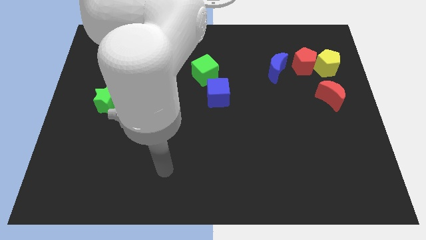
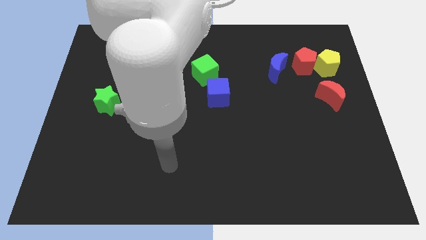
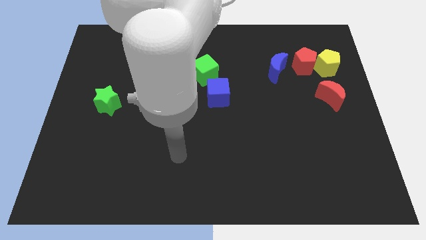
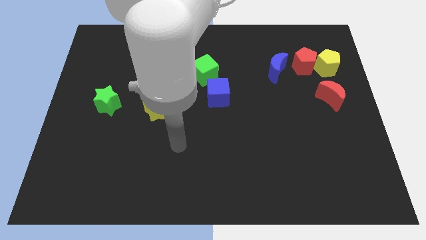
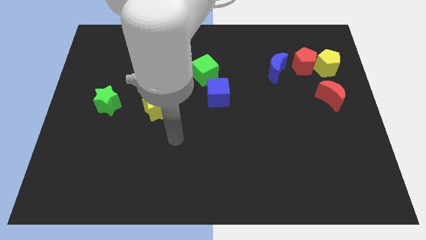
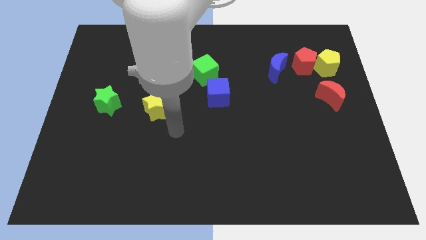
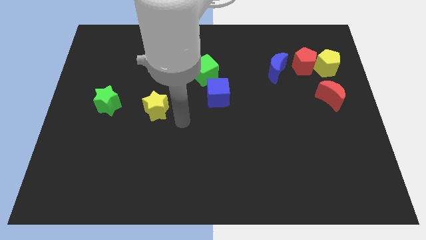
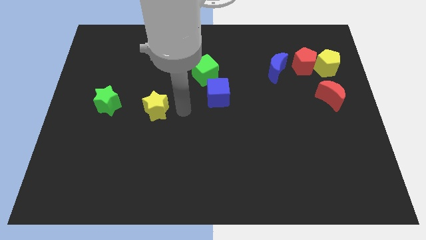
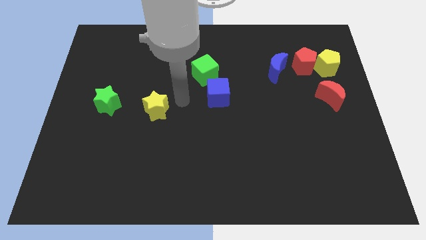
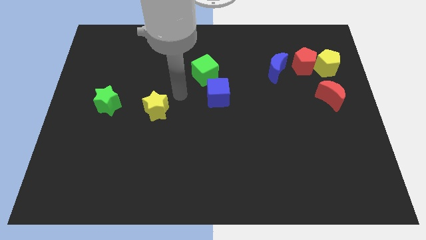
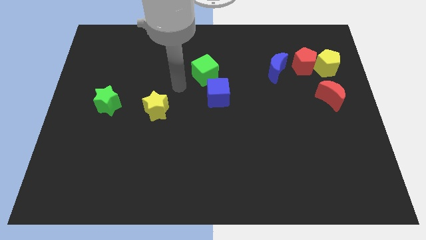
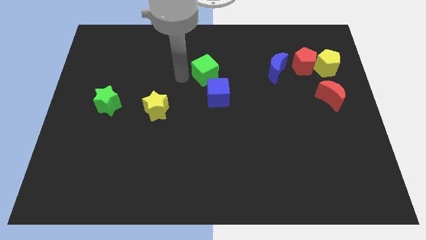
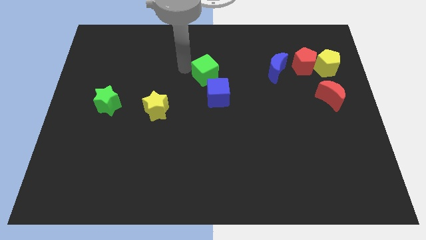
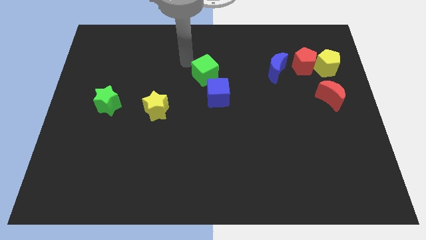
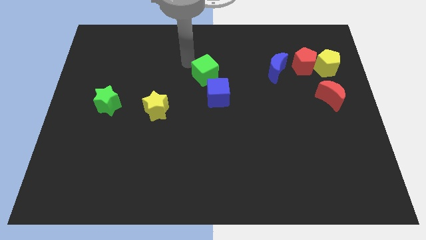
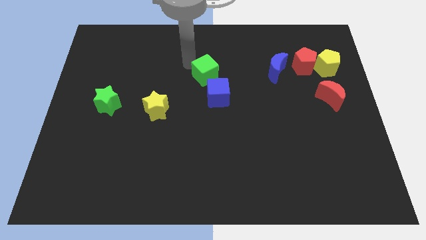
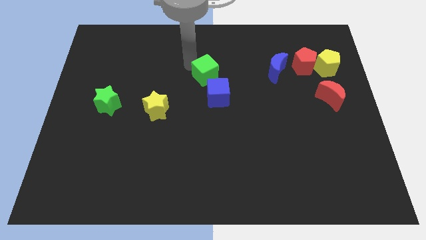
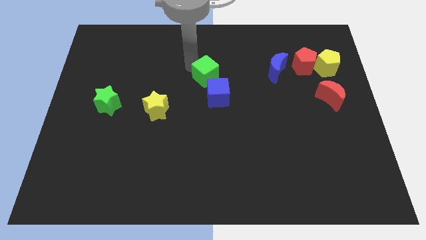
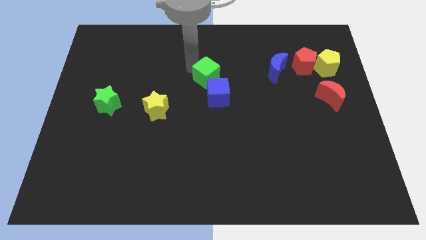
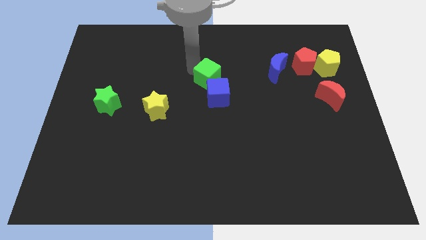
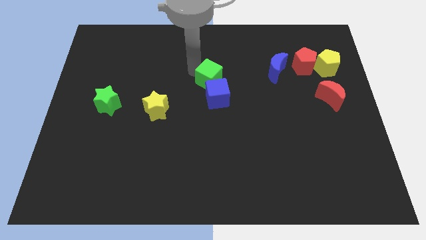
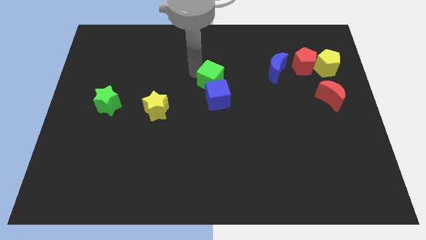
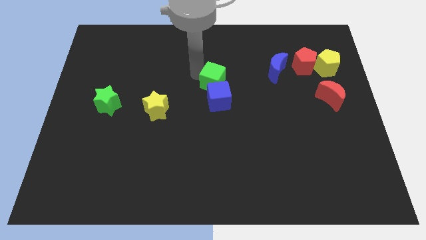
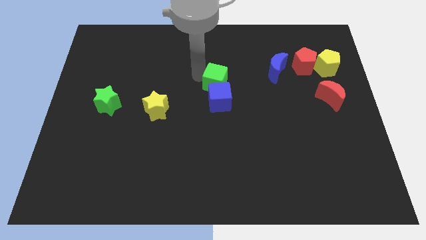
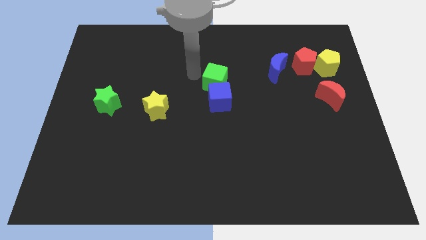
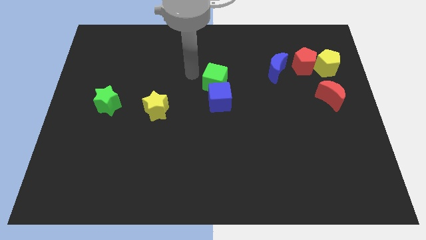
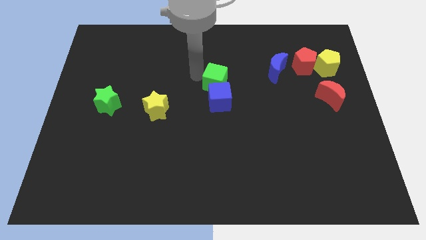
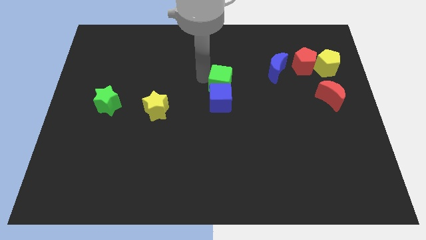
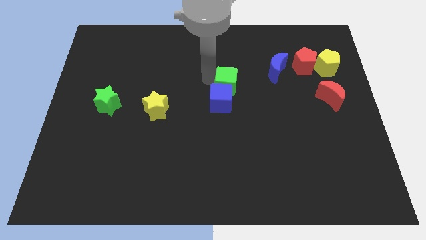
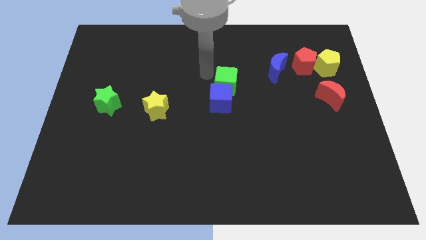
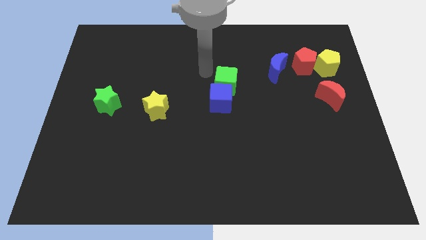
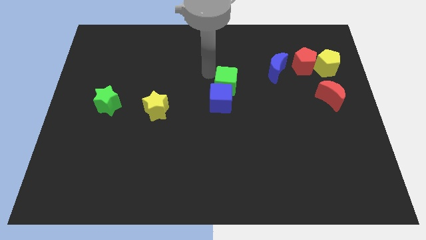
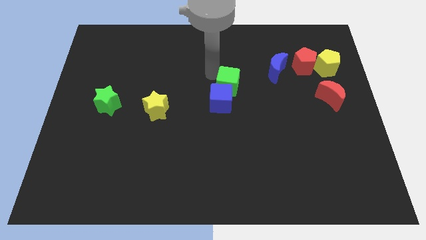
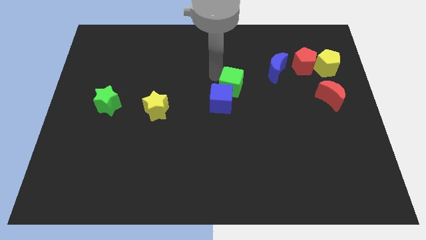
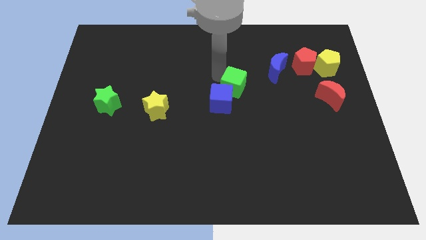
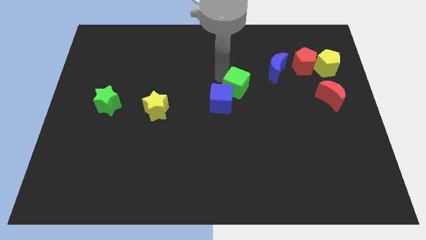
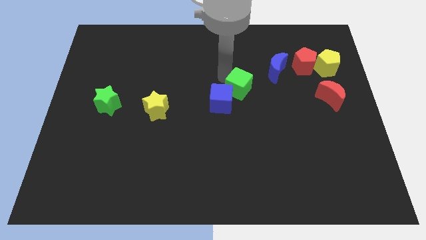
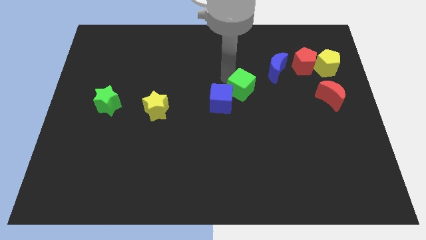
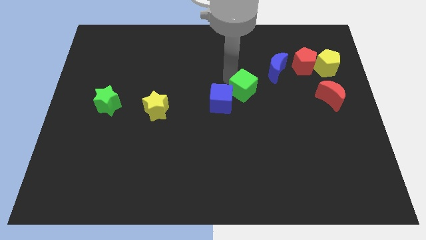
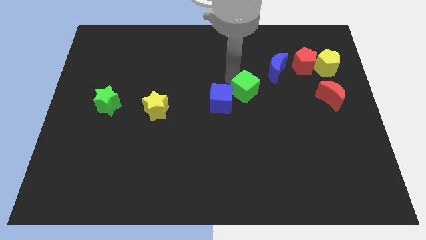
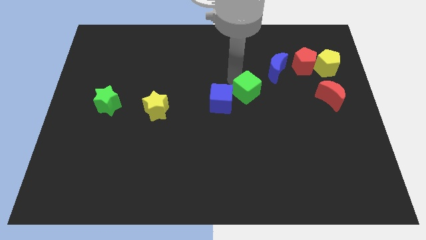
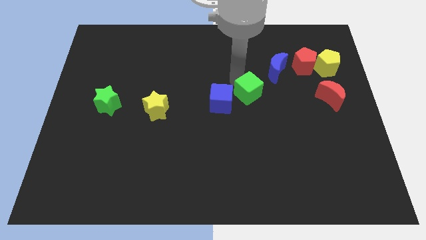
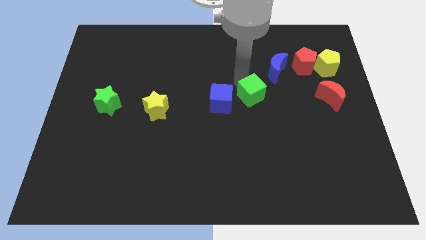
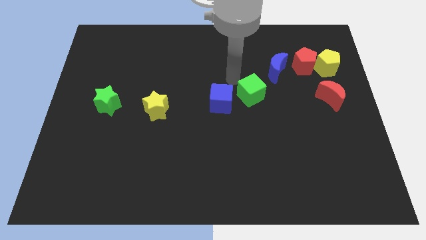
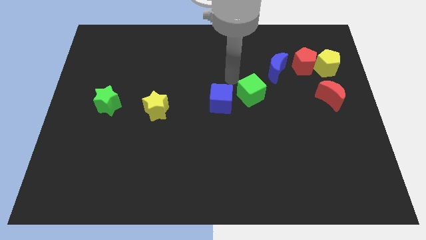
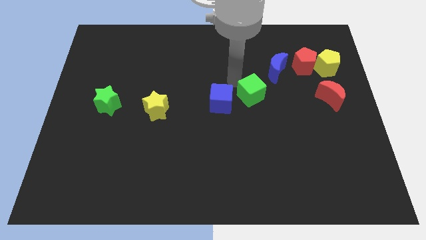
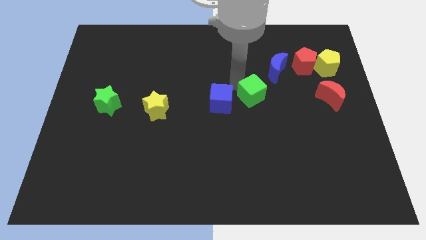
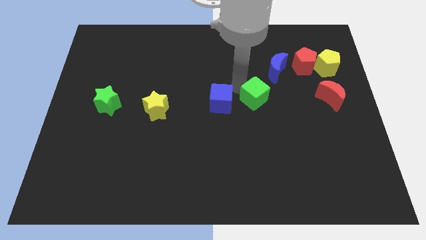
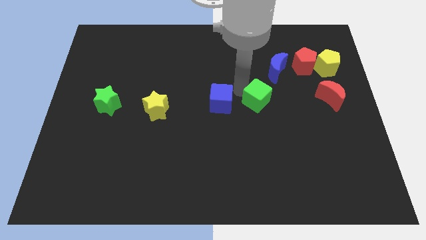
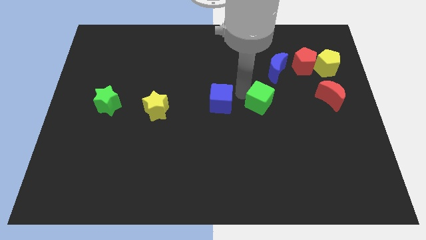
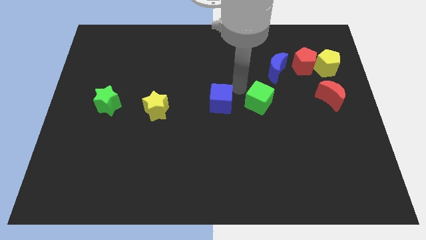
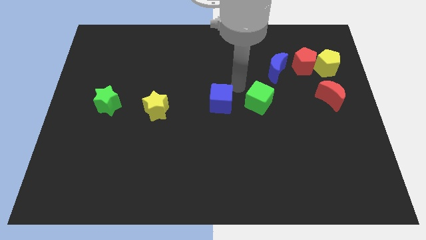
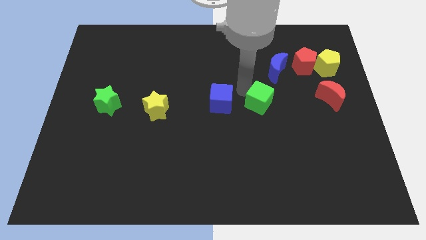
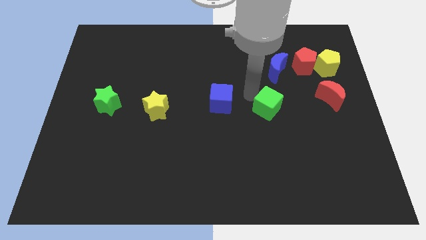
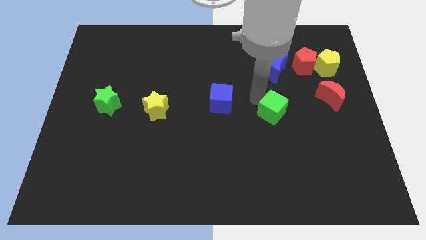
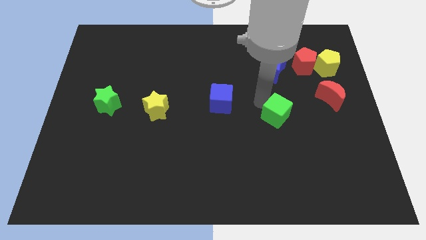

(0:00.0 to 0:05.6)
move the green cube downwards and right diagonally

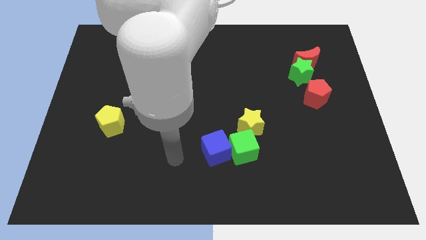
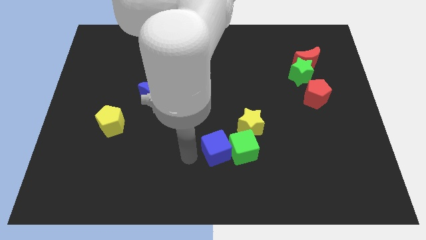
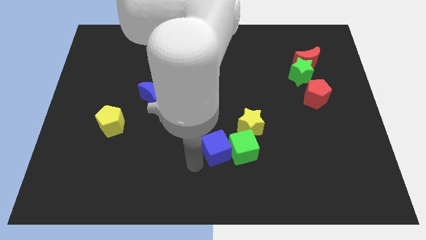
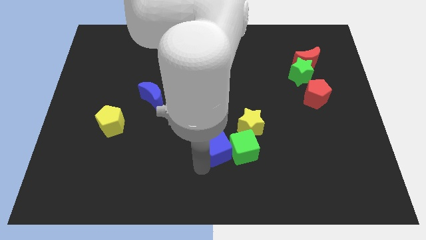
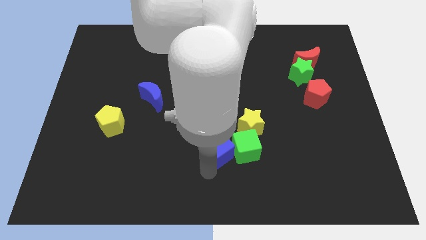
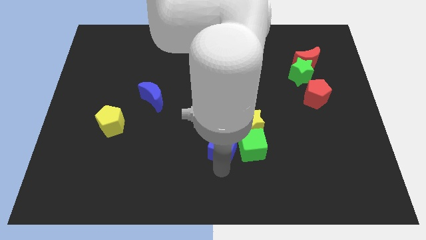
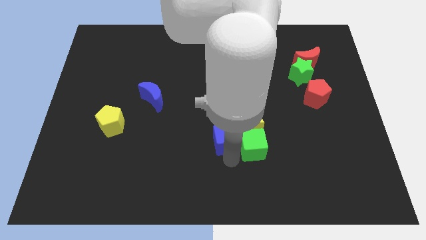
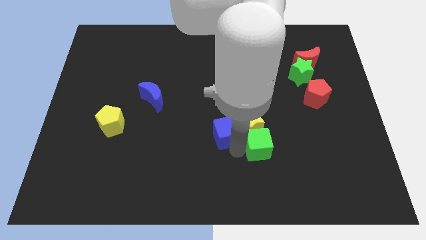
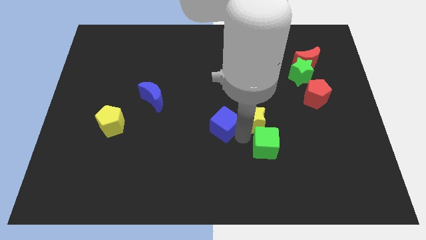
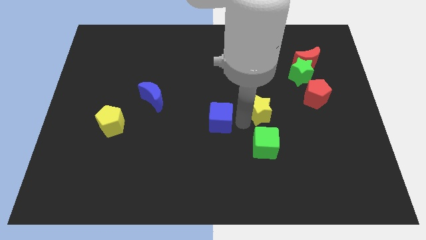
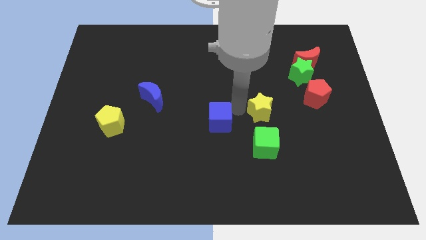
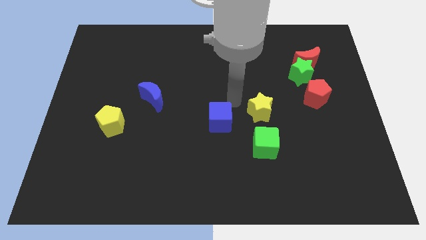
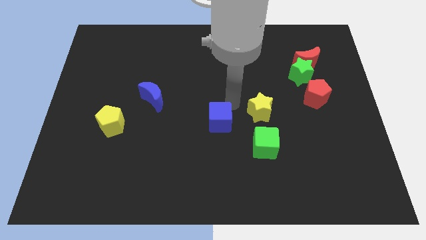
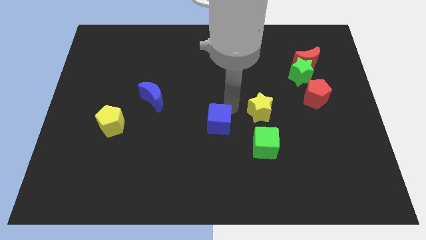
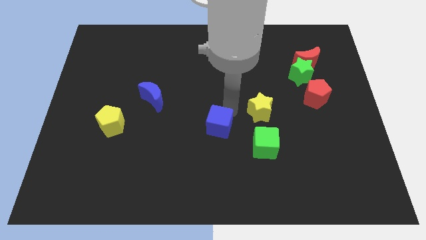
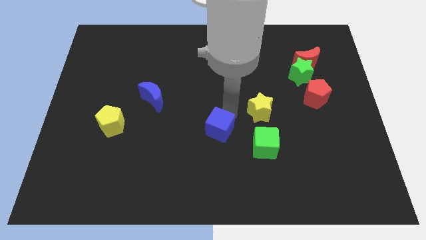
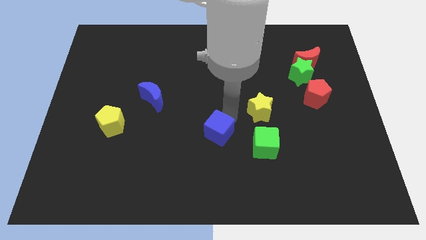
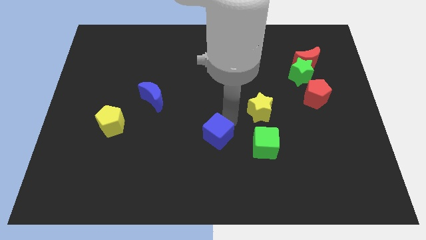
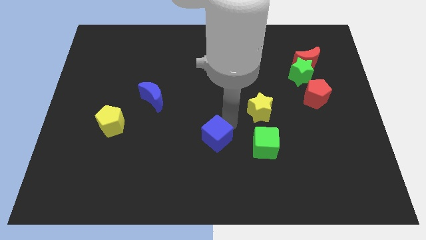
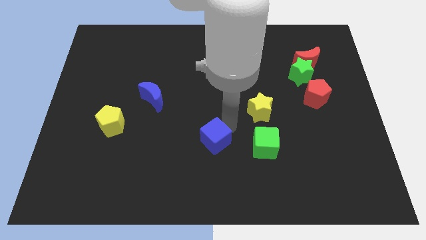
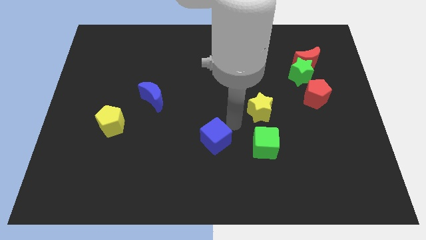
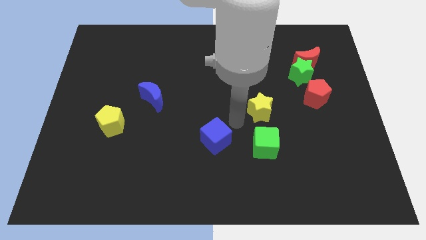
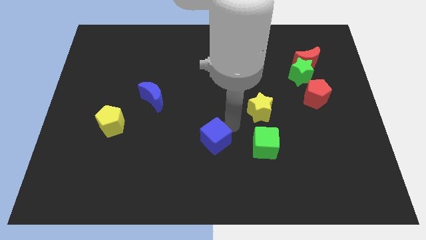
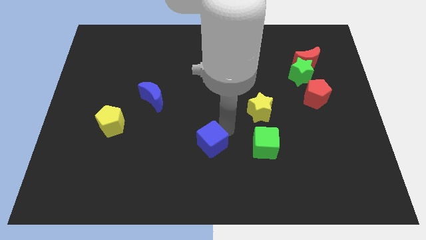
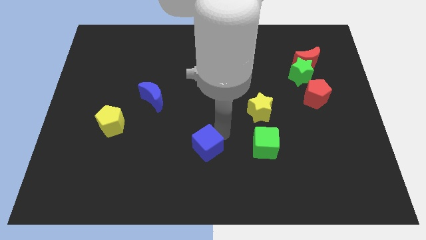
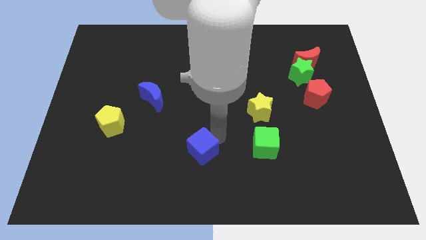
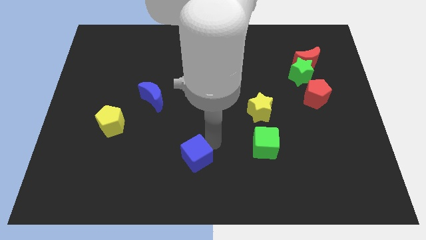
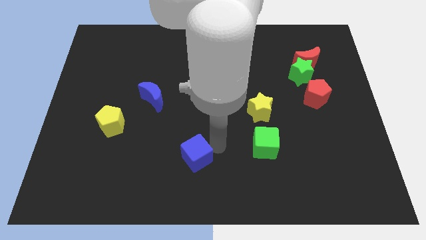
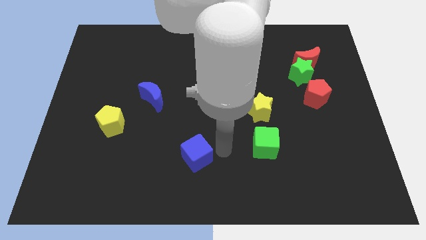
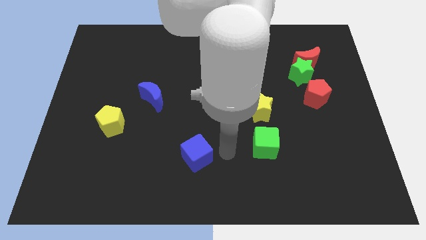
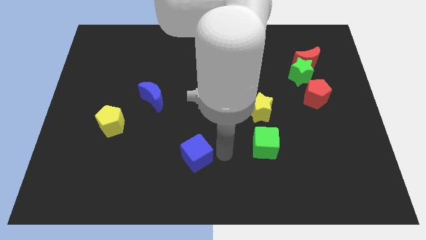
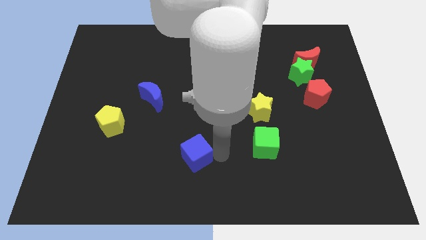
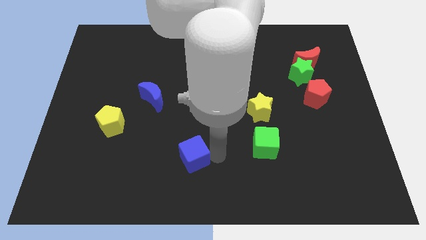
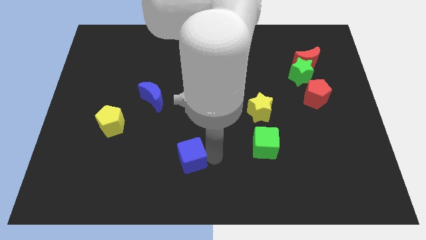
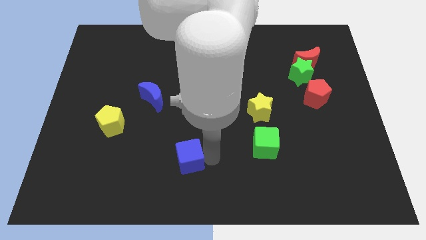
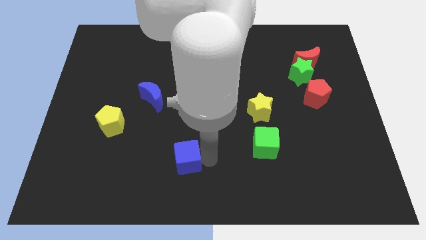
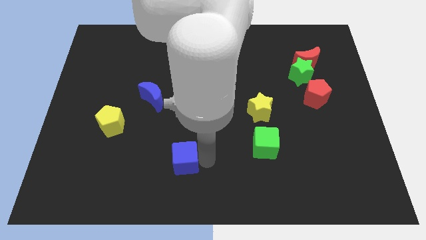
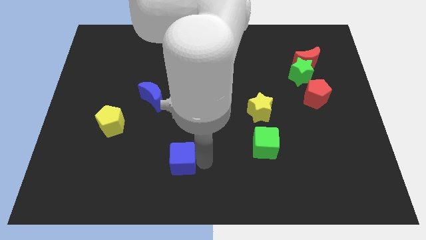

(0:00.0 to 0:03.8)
push the blue cube left a little
